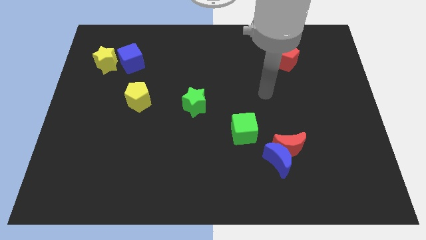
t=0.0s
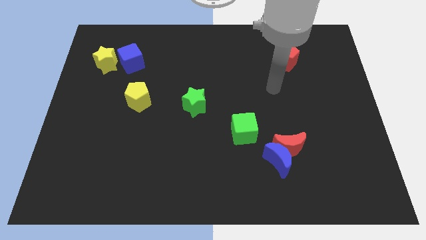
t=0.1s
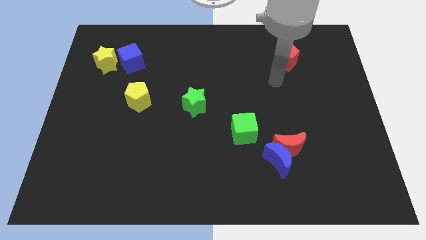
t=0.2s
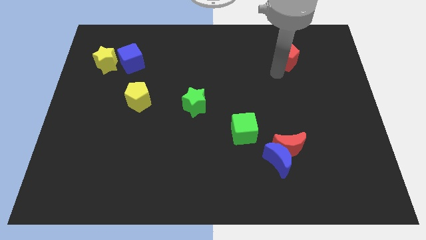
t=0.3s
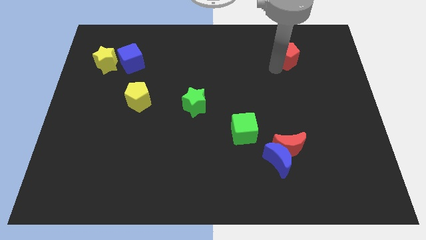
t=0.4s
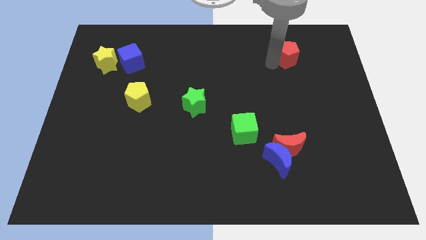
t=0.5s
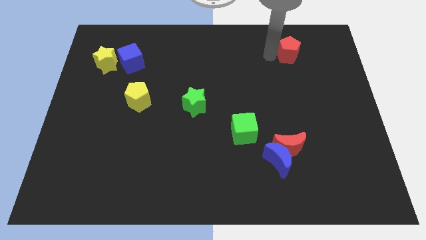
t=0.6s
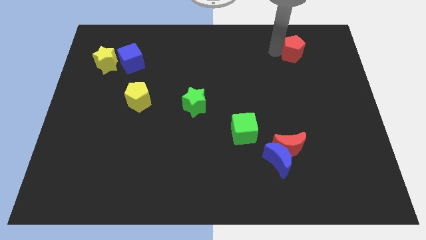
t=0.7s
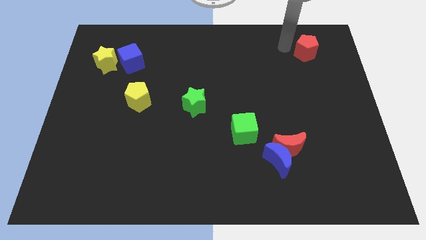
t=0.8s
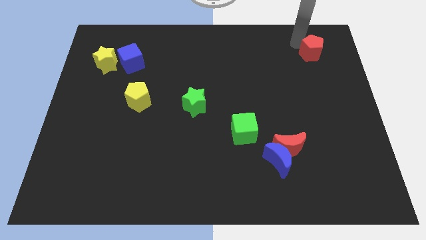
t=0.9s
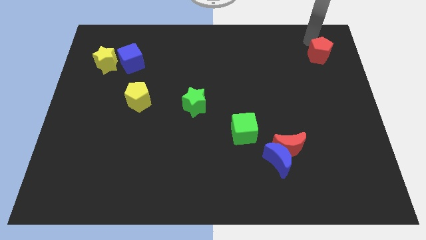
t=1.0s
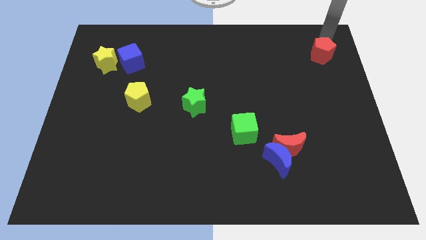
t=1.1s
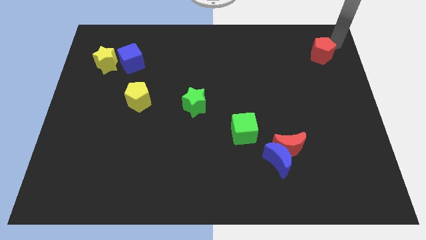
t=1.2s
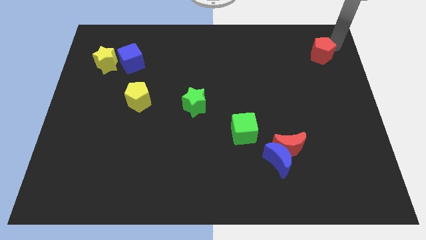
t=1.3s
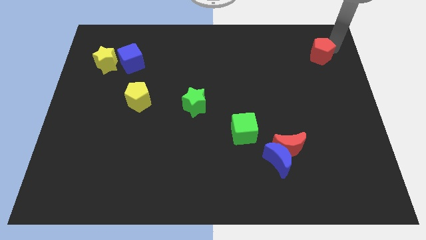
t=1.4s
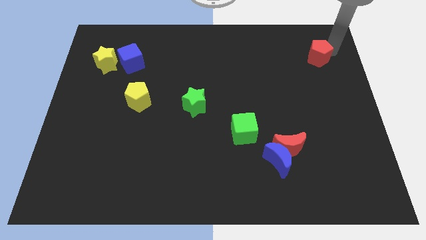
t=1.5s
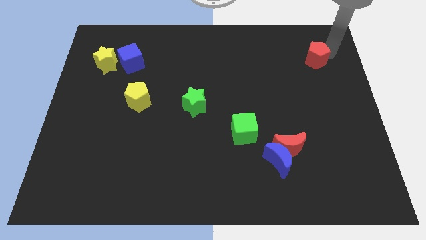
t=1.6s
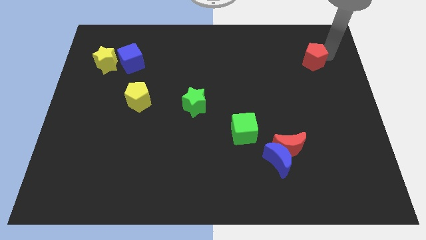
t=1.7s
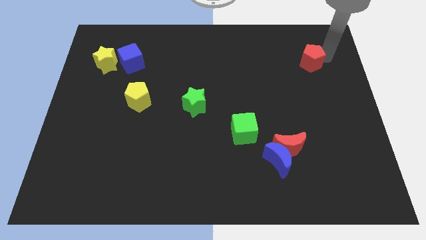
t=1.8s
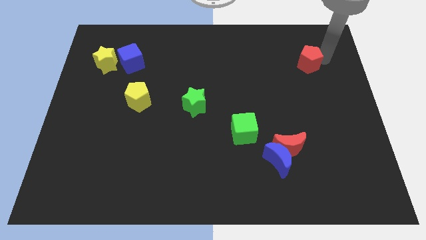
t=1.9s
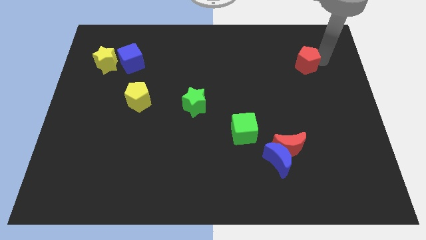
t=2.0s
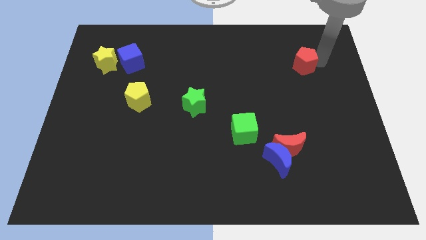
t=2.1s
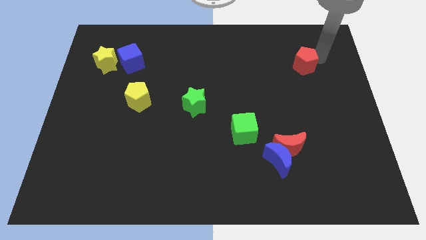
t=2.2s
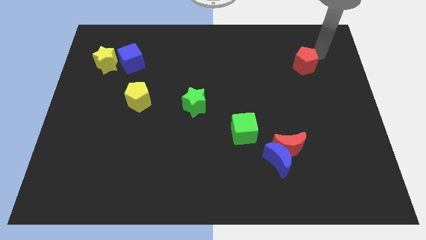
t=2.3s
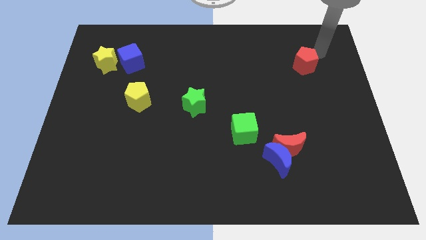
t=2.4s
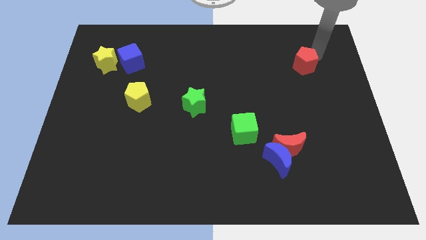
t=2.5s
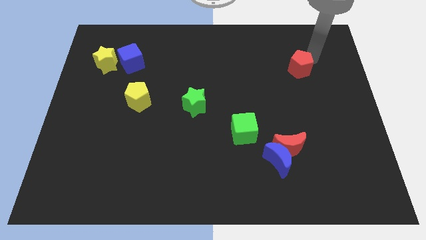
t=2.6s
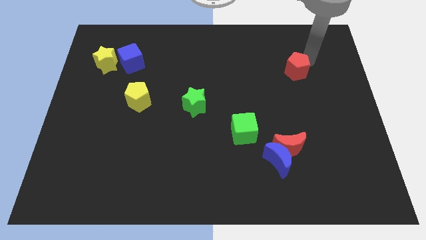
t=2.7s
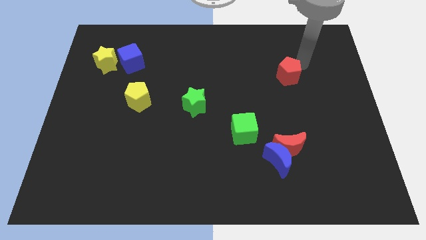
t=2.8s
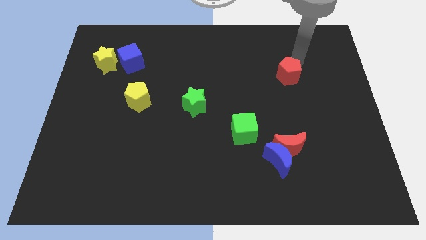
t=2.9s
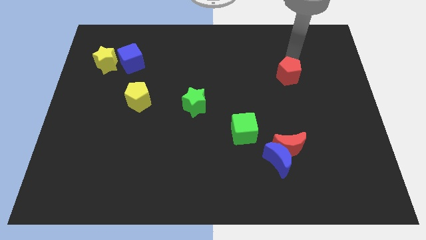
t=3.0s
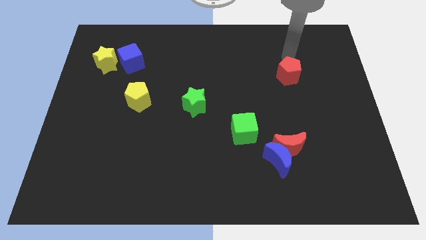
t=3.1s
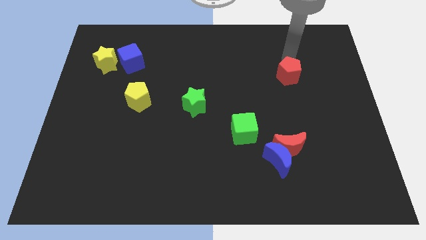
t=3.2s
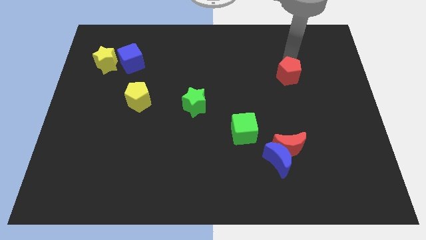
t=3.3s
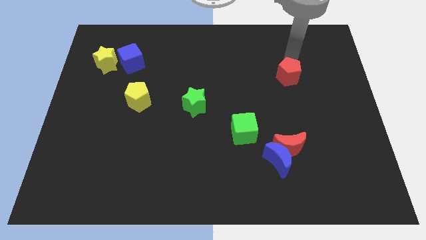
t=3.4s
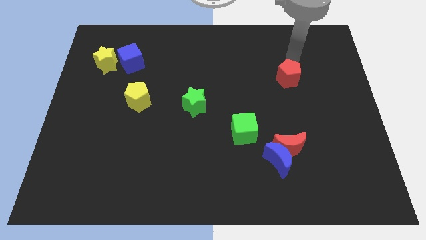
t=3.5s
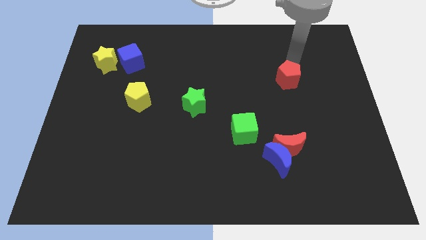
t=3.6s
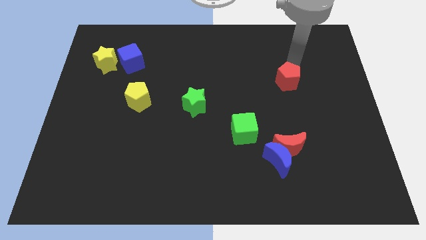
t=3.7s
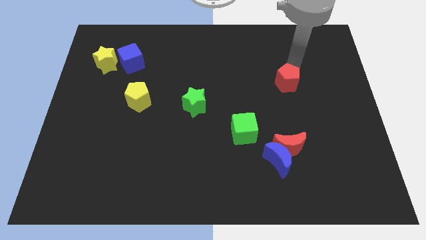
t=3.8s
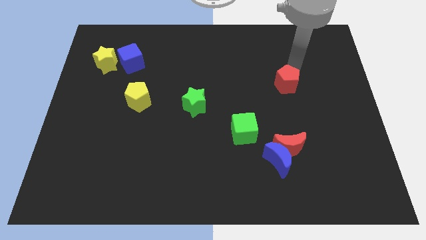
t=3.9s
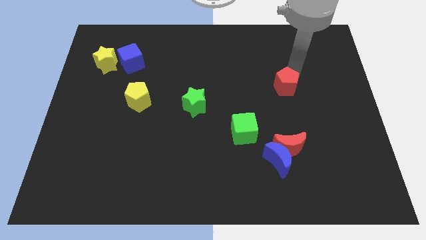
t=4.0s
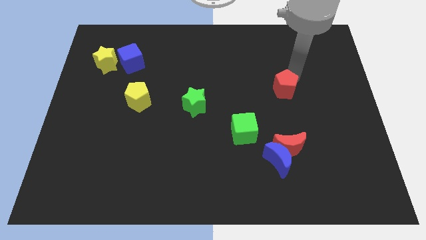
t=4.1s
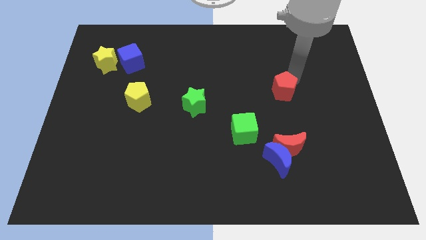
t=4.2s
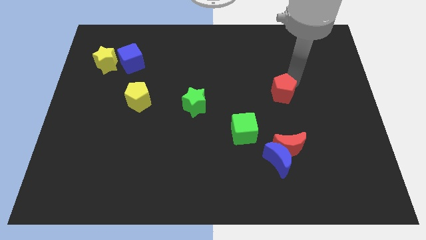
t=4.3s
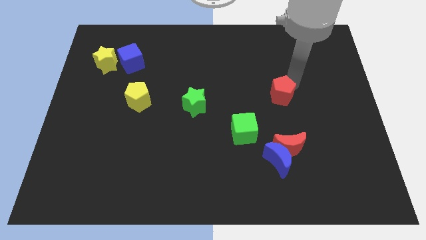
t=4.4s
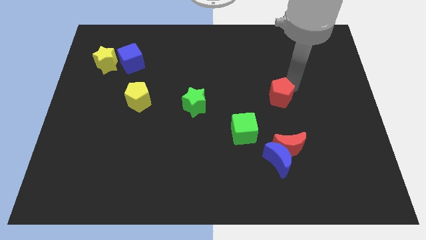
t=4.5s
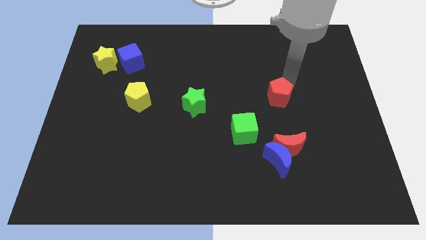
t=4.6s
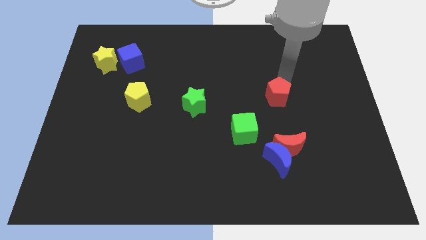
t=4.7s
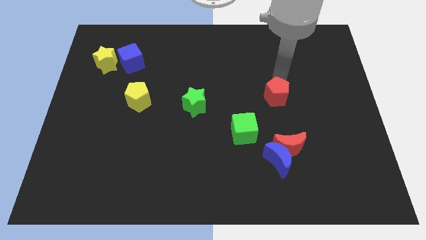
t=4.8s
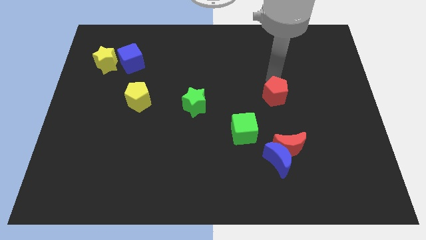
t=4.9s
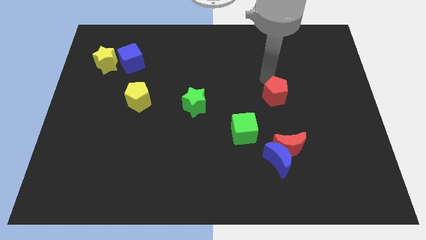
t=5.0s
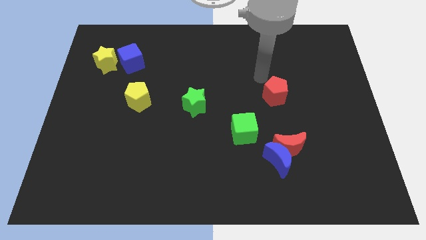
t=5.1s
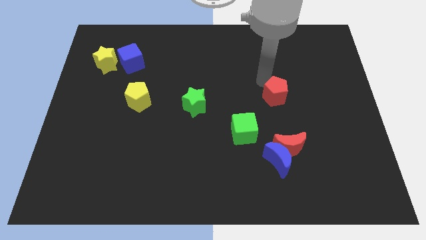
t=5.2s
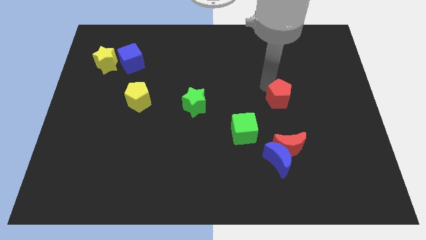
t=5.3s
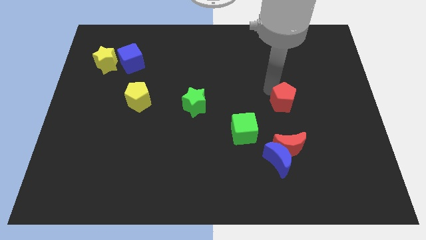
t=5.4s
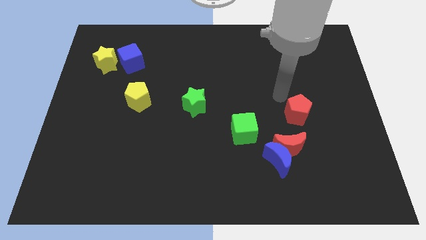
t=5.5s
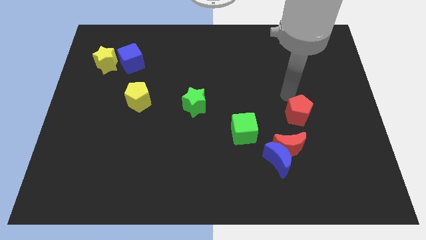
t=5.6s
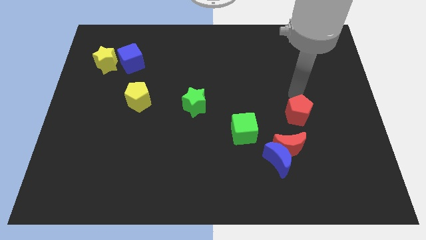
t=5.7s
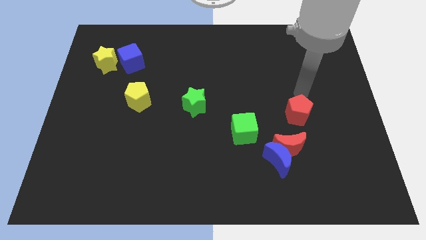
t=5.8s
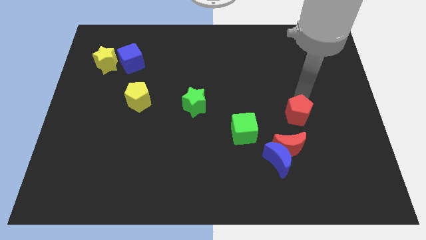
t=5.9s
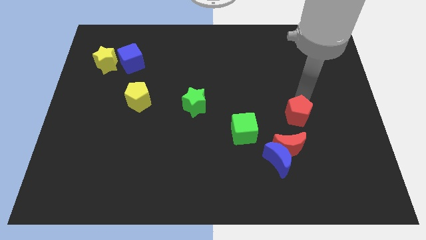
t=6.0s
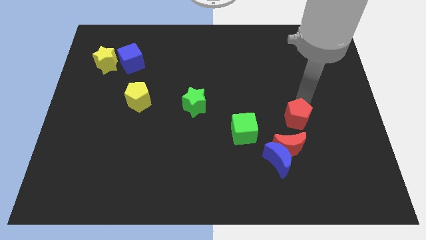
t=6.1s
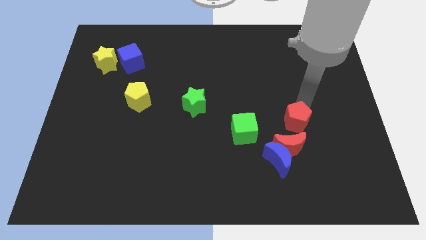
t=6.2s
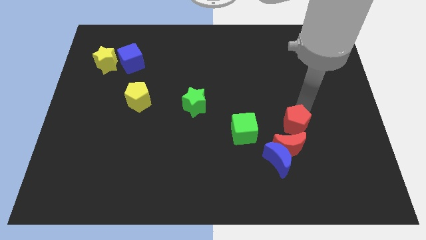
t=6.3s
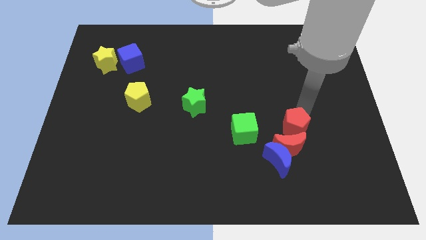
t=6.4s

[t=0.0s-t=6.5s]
slide the red pentagon close to the red moon

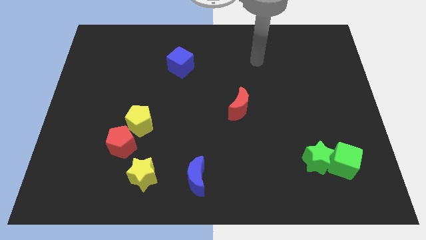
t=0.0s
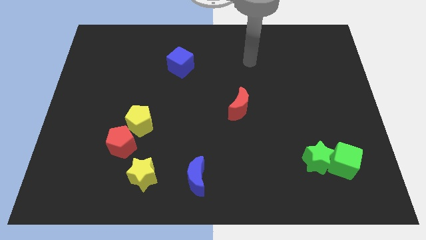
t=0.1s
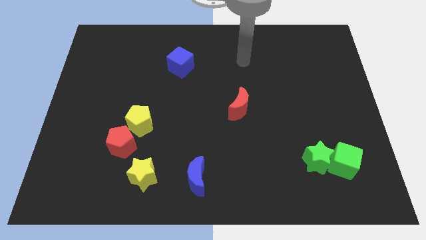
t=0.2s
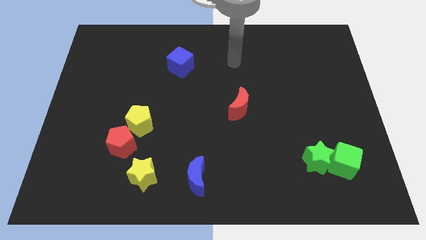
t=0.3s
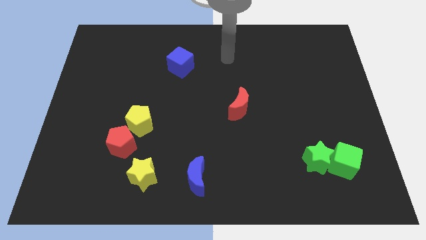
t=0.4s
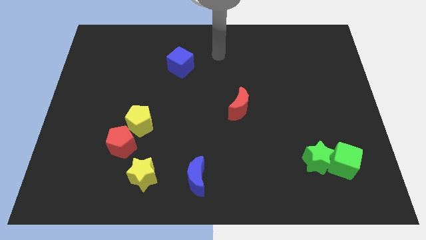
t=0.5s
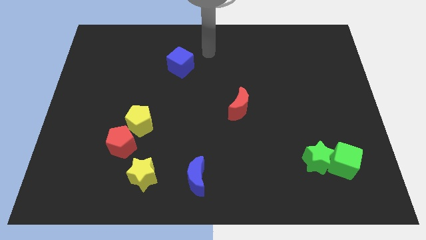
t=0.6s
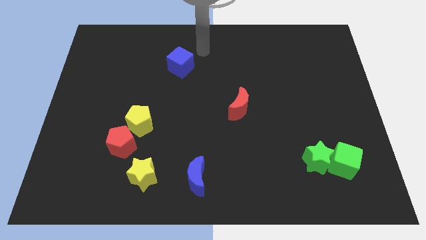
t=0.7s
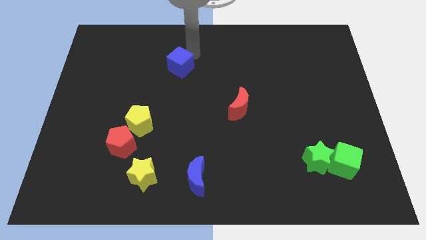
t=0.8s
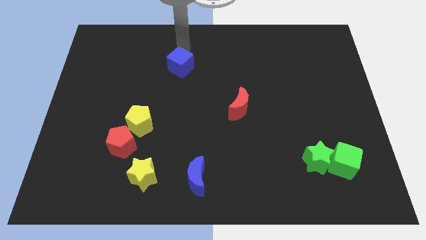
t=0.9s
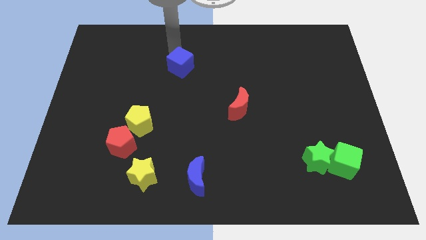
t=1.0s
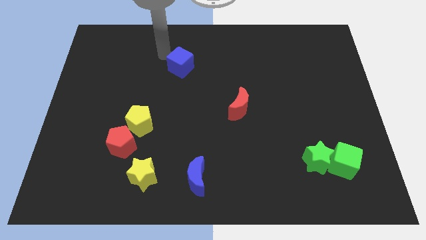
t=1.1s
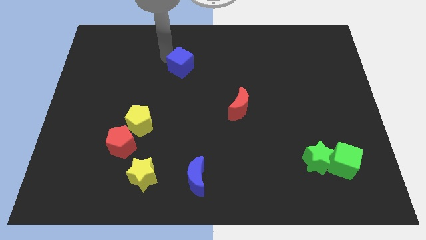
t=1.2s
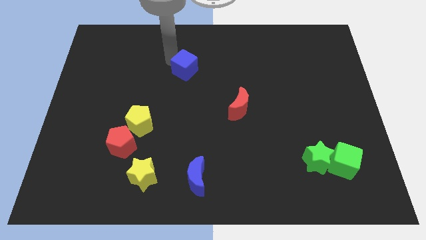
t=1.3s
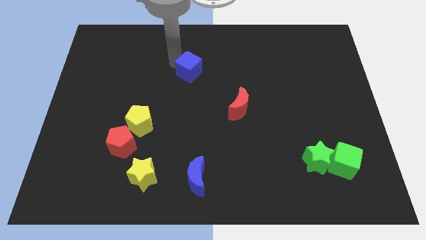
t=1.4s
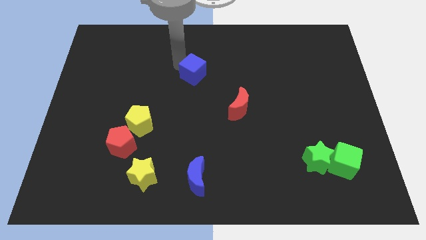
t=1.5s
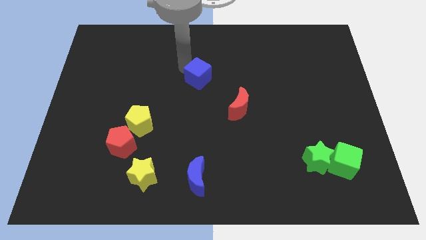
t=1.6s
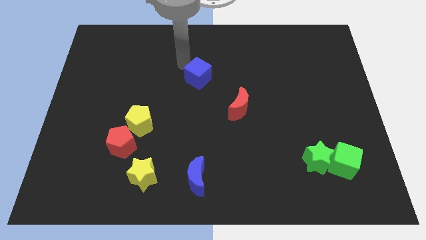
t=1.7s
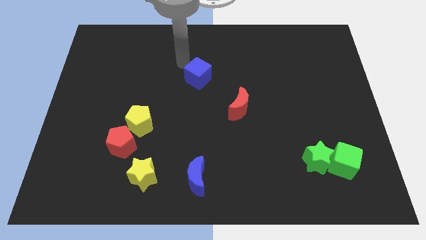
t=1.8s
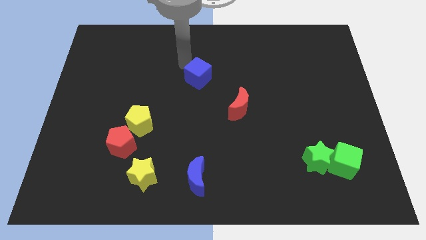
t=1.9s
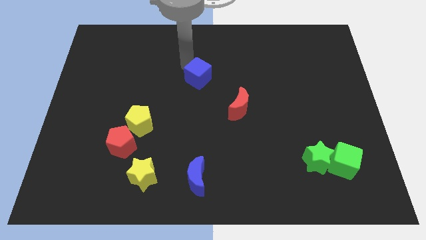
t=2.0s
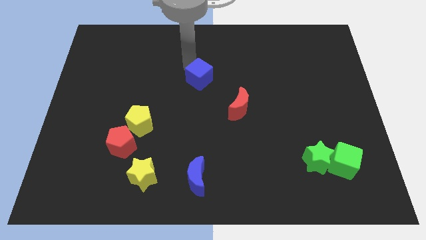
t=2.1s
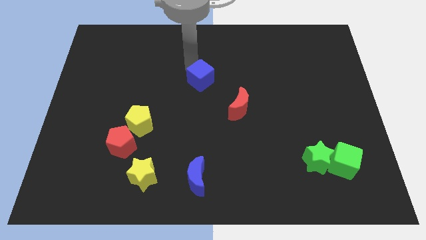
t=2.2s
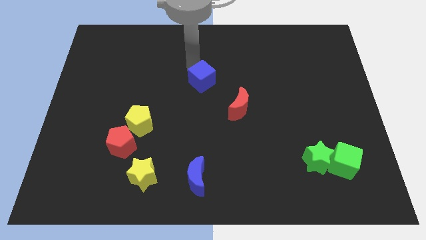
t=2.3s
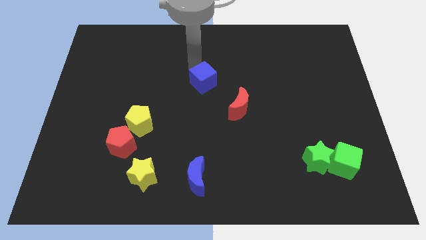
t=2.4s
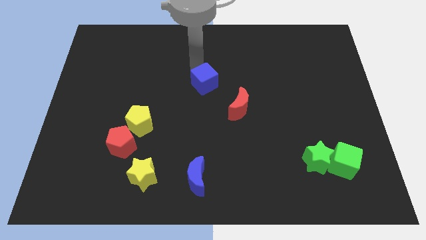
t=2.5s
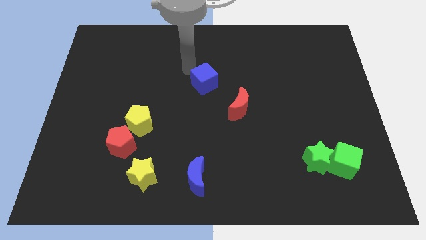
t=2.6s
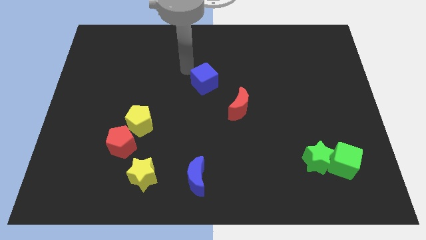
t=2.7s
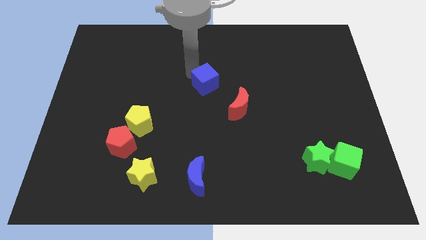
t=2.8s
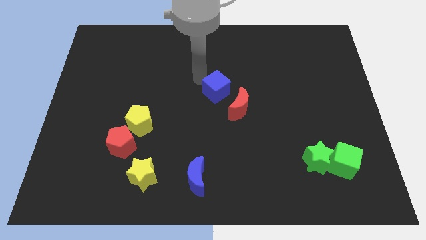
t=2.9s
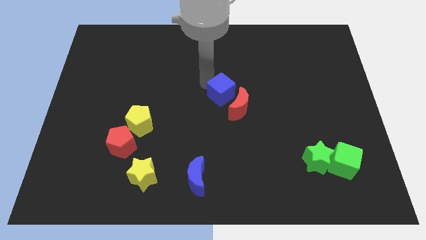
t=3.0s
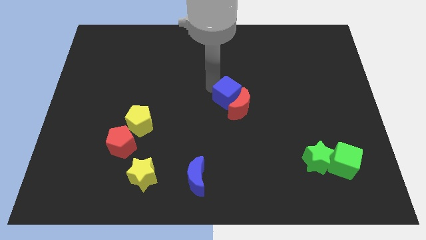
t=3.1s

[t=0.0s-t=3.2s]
push the blue cube to the red moon
